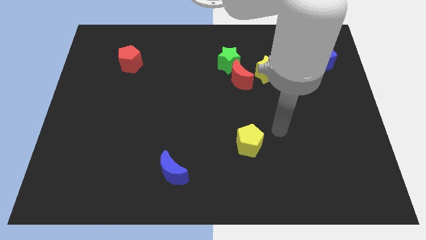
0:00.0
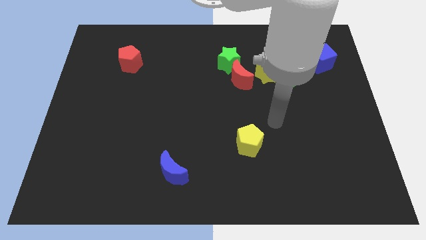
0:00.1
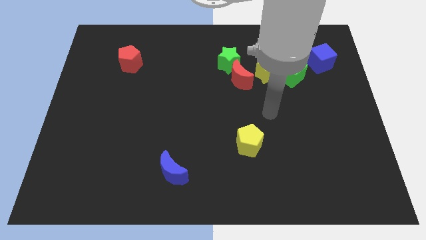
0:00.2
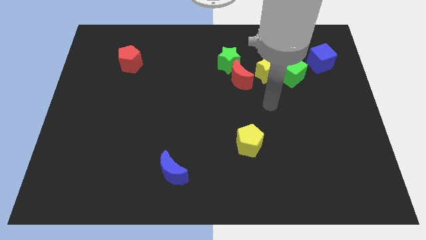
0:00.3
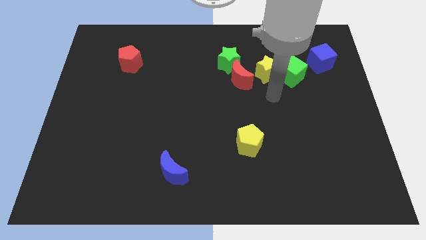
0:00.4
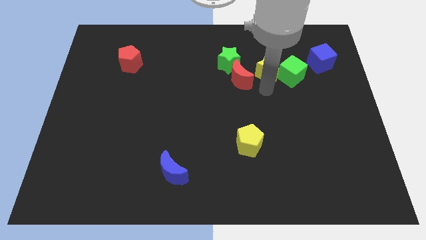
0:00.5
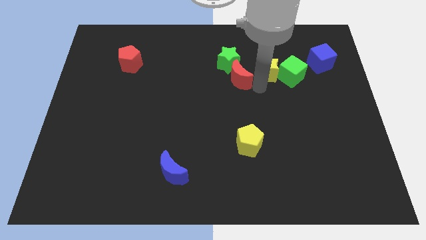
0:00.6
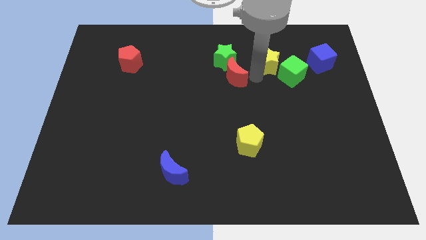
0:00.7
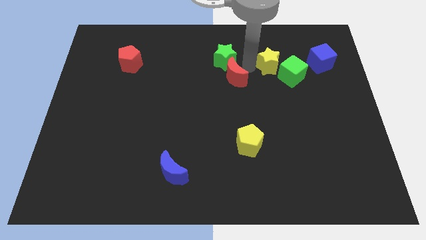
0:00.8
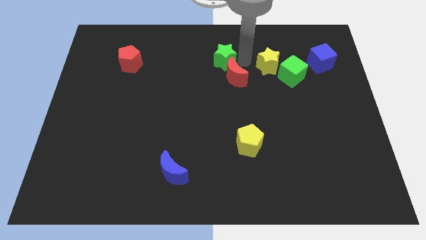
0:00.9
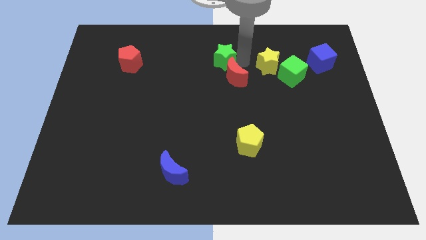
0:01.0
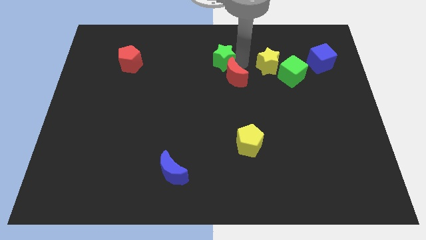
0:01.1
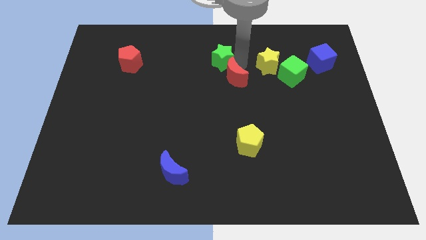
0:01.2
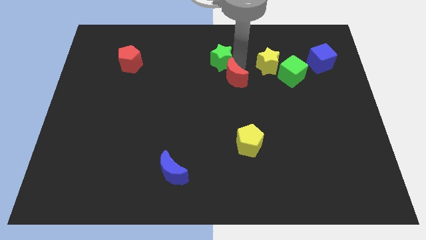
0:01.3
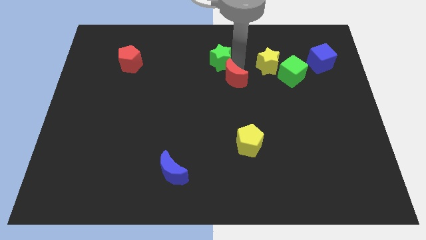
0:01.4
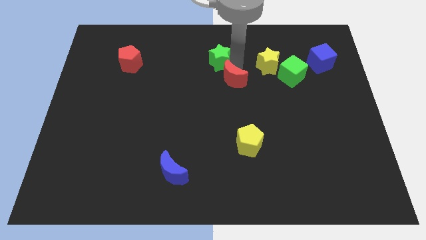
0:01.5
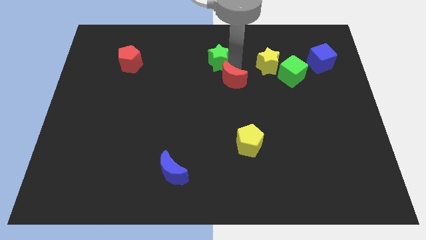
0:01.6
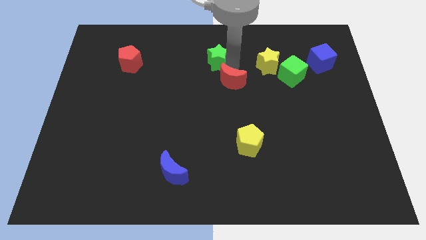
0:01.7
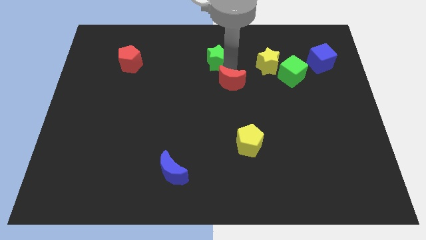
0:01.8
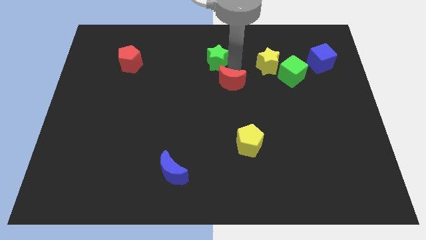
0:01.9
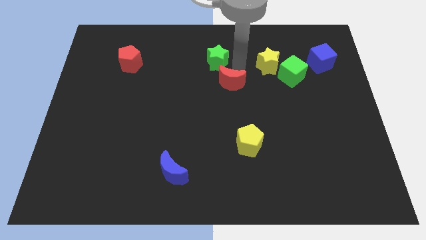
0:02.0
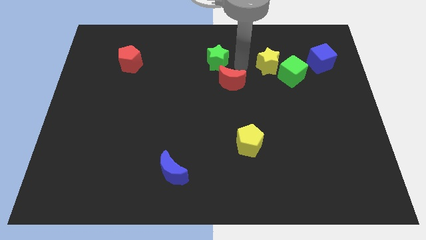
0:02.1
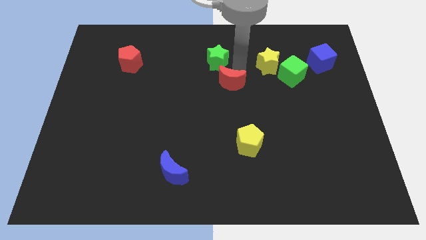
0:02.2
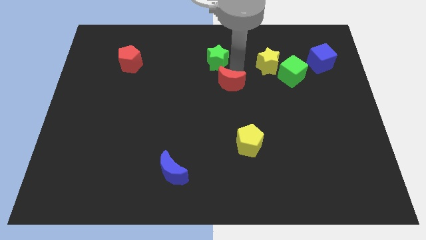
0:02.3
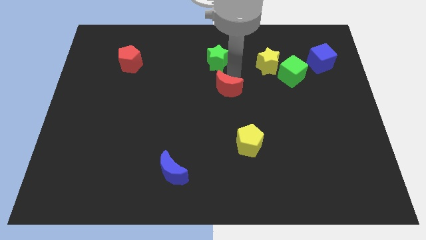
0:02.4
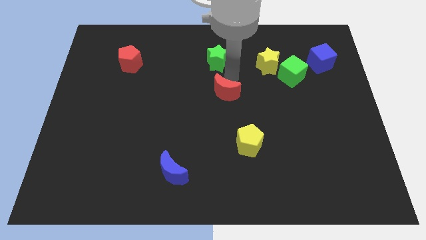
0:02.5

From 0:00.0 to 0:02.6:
separate the red moon from the green star and yellow star

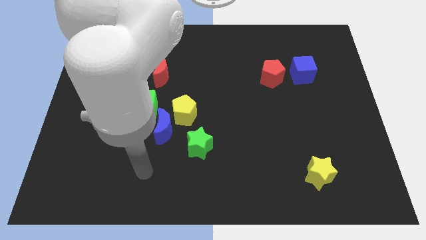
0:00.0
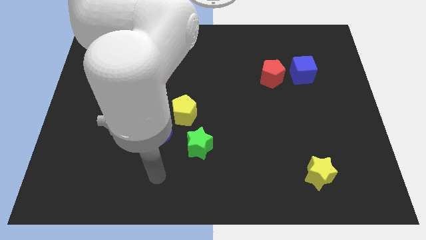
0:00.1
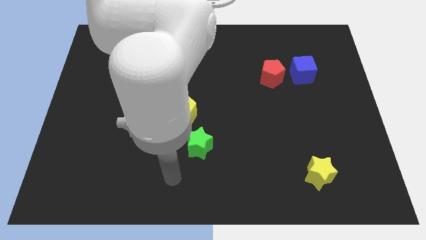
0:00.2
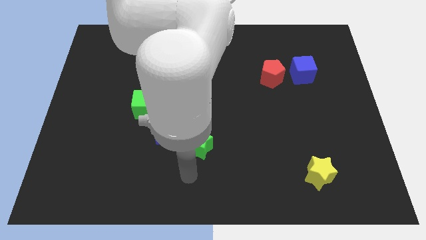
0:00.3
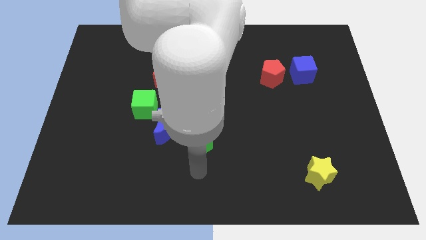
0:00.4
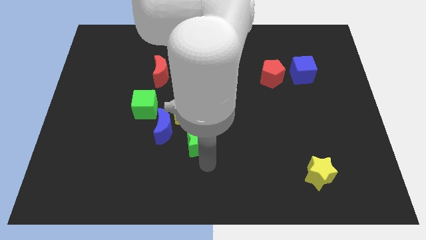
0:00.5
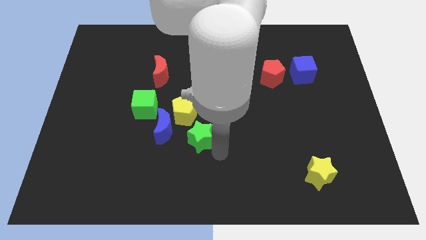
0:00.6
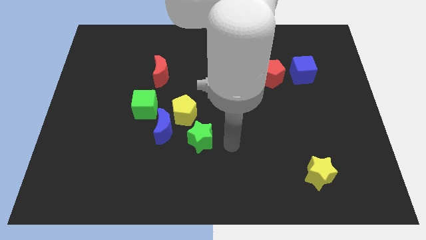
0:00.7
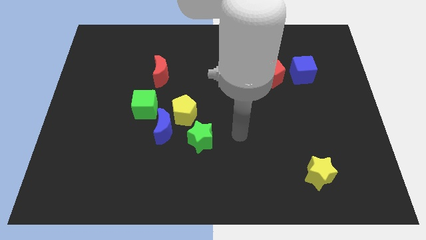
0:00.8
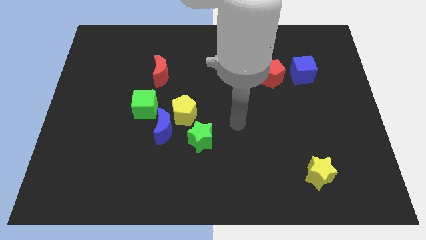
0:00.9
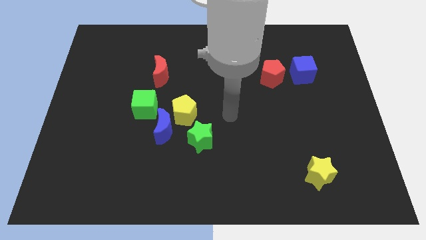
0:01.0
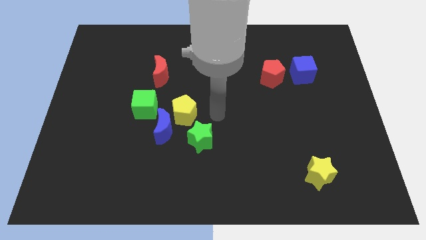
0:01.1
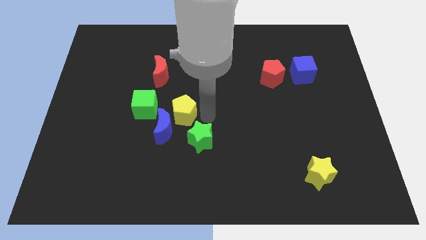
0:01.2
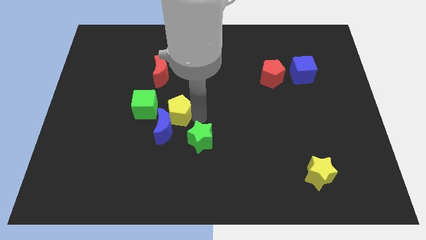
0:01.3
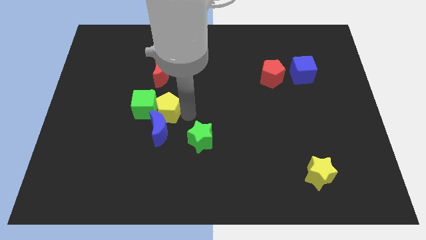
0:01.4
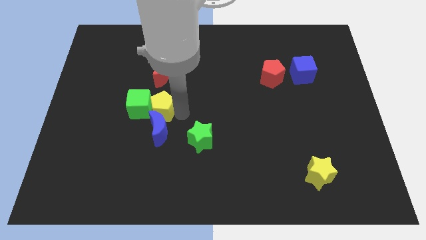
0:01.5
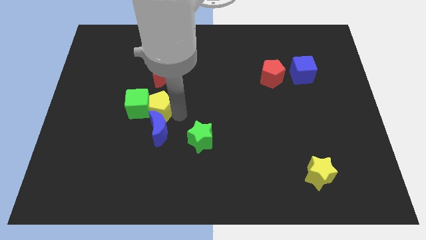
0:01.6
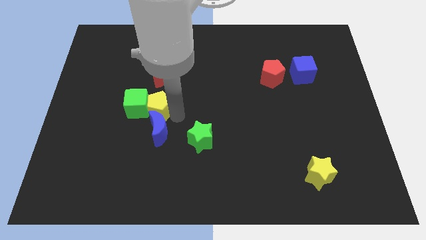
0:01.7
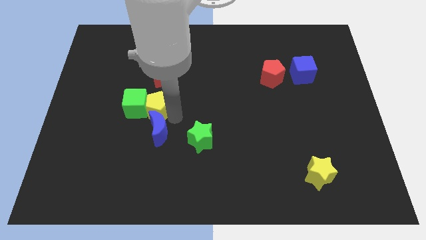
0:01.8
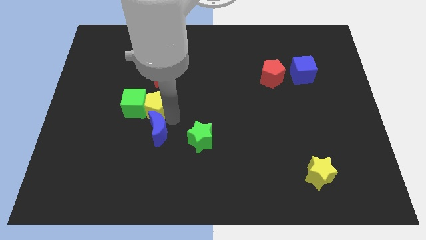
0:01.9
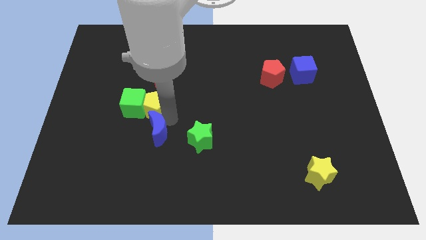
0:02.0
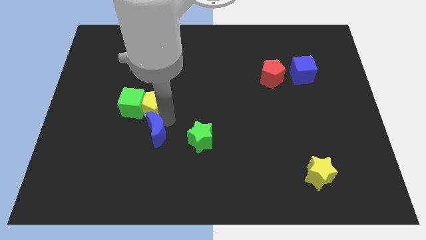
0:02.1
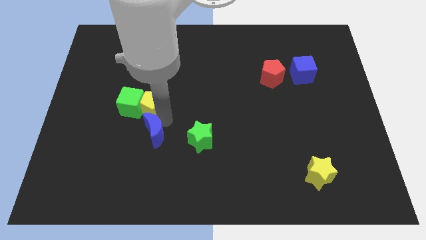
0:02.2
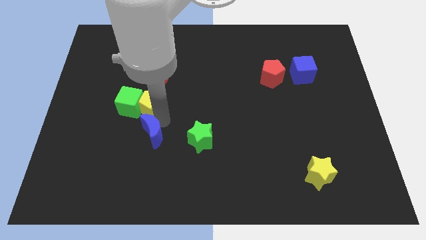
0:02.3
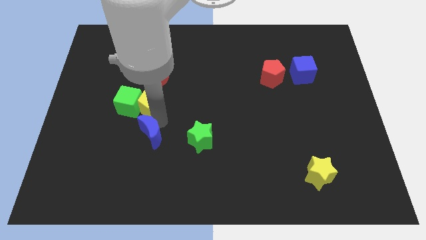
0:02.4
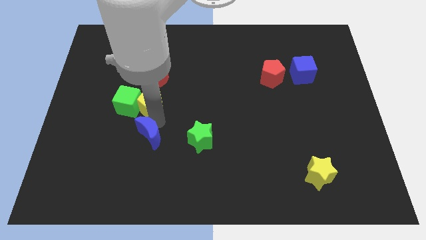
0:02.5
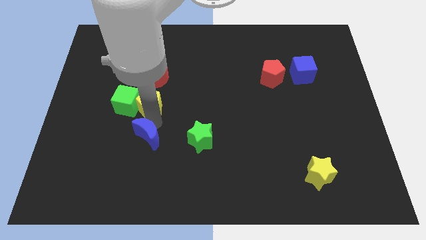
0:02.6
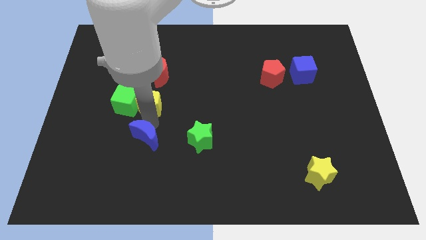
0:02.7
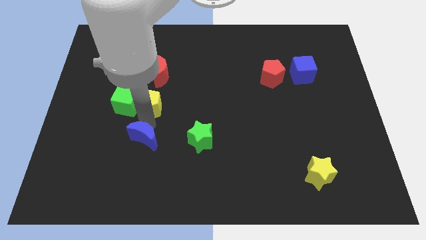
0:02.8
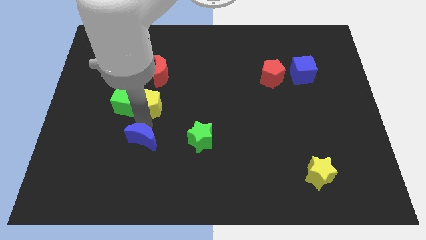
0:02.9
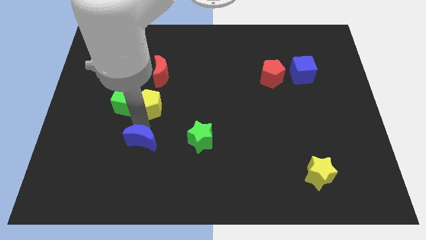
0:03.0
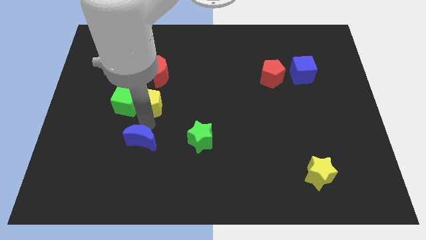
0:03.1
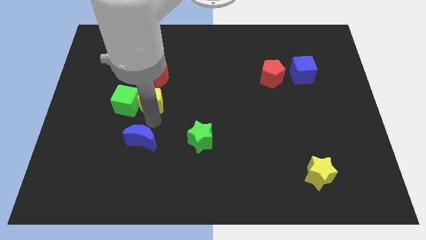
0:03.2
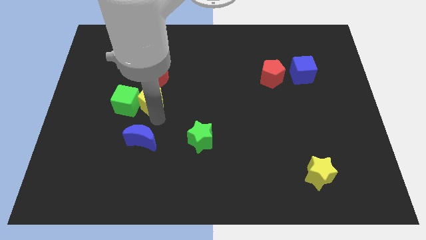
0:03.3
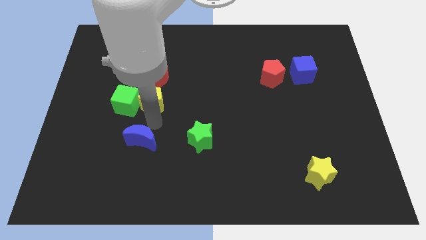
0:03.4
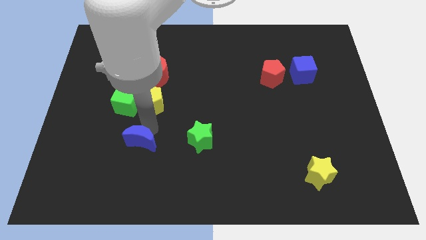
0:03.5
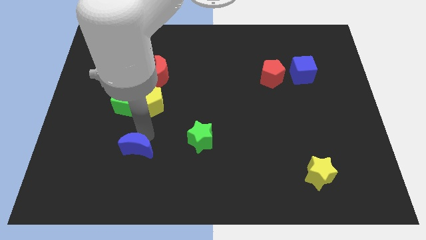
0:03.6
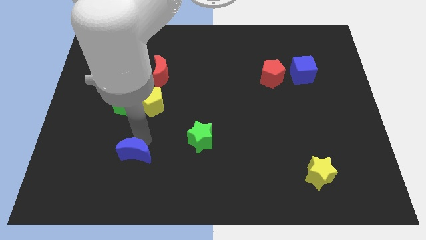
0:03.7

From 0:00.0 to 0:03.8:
move the blue moon away from the yellow pentagon, green cube, and green star

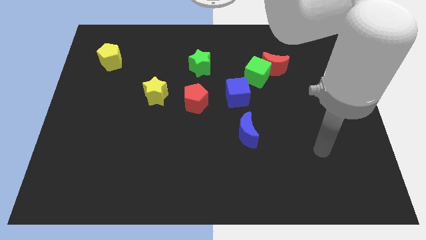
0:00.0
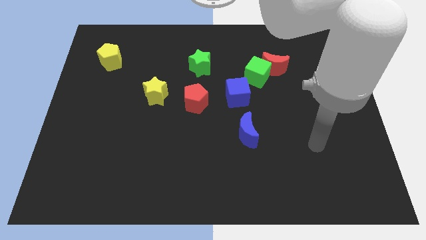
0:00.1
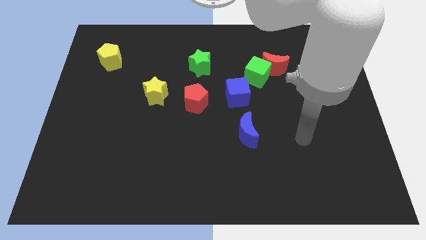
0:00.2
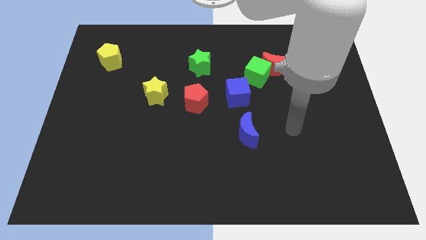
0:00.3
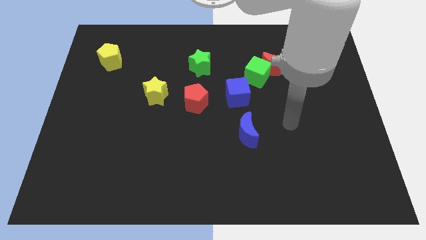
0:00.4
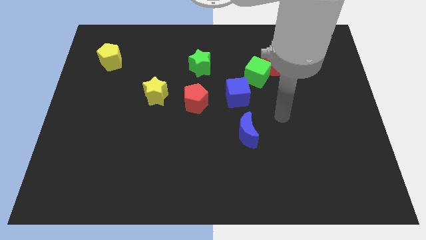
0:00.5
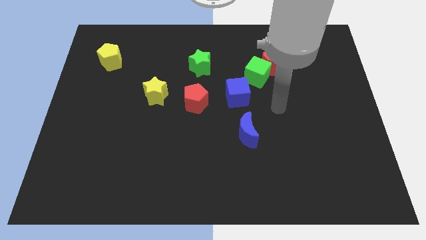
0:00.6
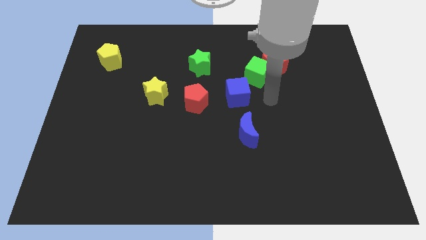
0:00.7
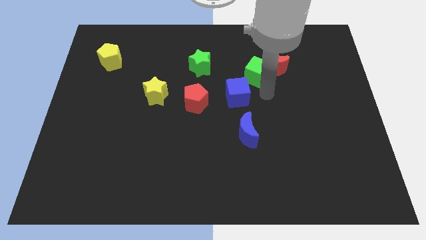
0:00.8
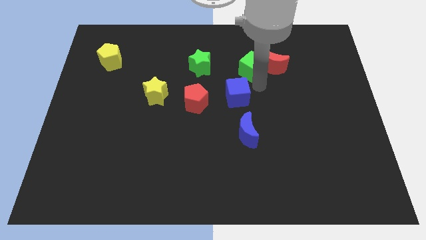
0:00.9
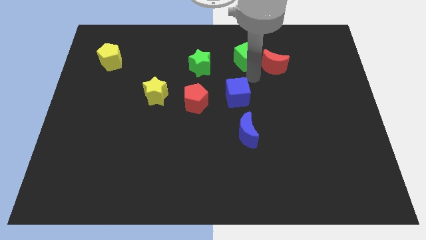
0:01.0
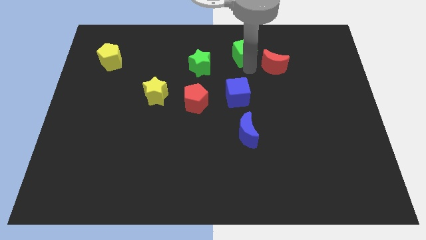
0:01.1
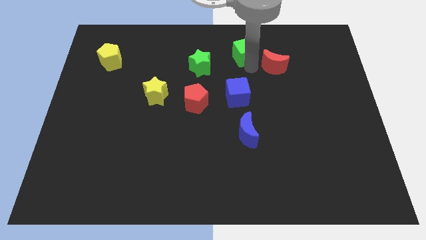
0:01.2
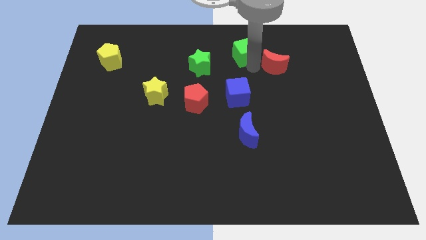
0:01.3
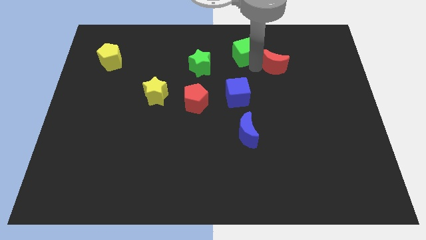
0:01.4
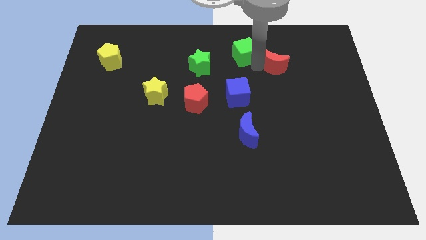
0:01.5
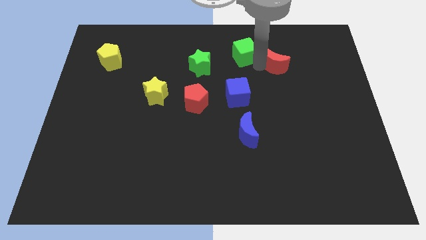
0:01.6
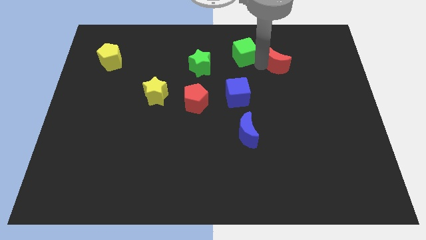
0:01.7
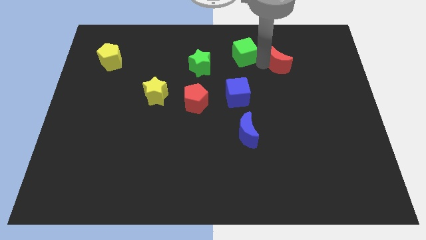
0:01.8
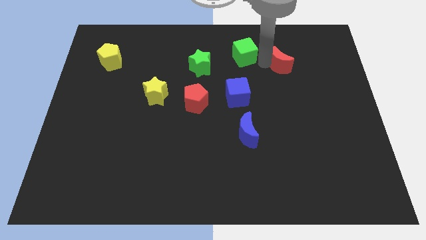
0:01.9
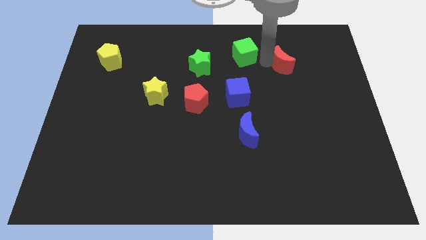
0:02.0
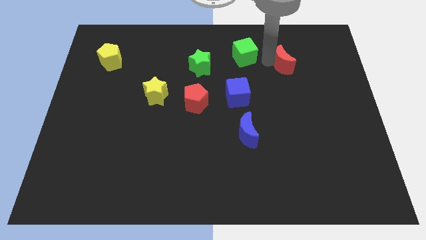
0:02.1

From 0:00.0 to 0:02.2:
move the red moon away from the green cube

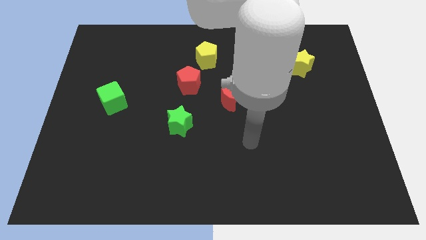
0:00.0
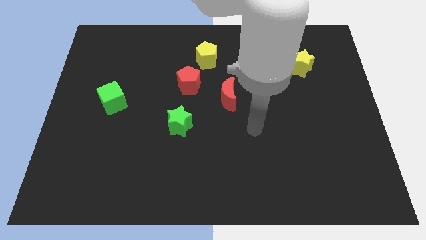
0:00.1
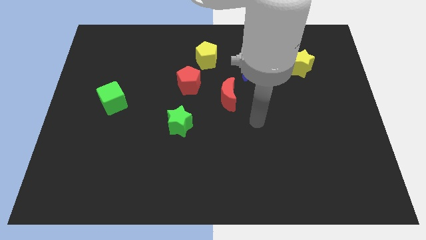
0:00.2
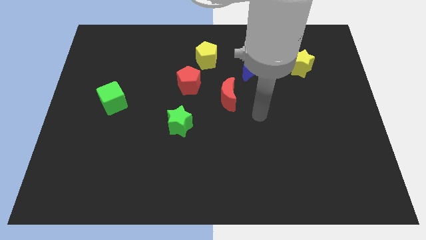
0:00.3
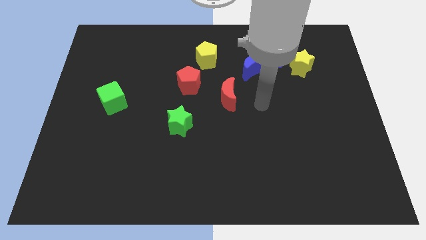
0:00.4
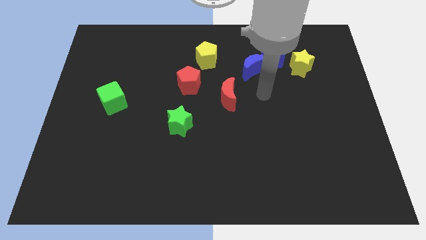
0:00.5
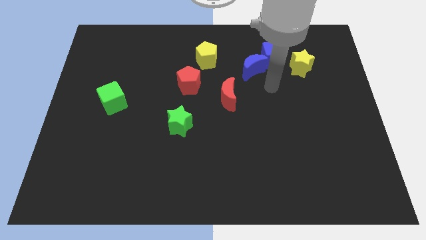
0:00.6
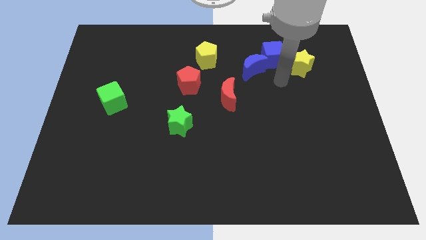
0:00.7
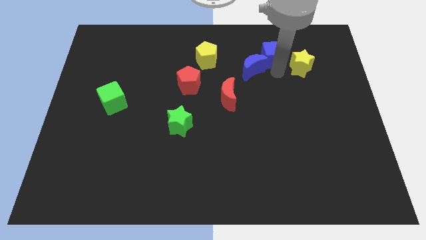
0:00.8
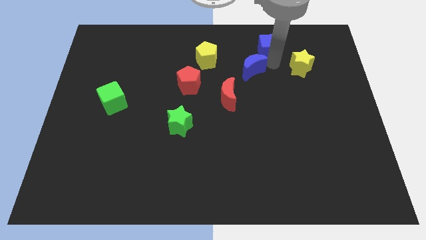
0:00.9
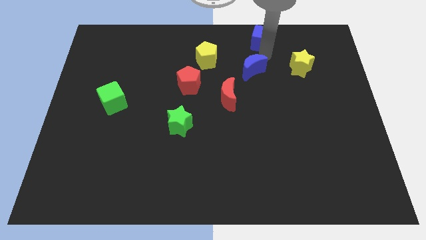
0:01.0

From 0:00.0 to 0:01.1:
separate the blue moon from the blue cube
